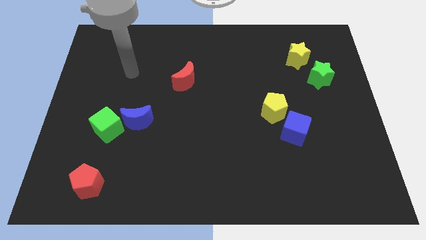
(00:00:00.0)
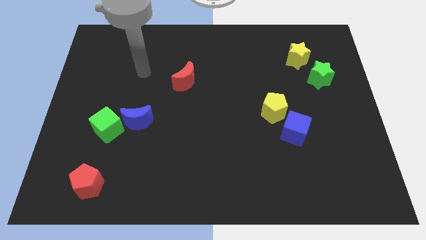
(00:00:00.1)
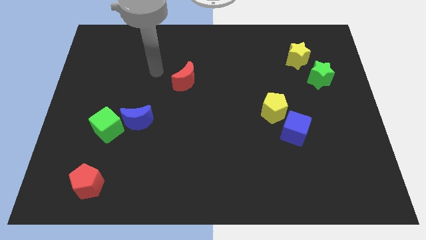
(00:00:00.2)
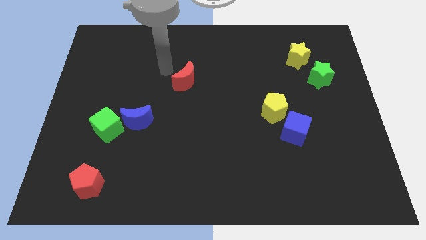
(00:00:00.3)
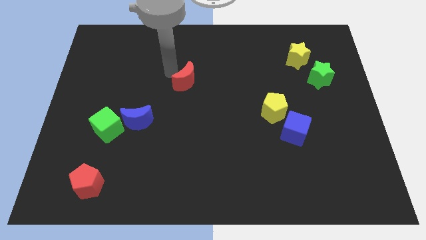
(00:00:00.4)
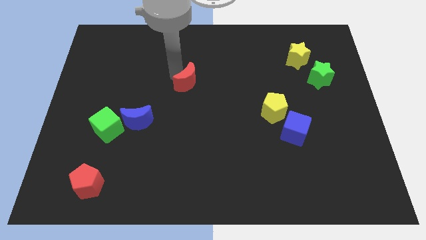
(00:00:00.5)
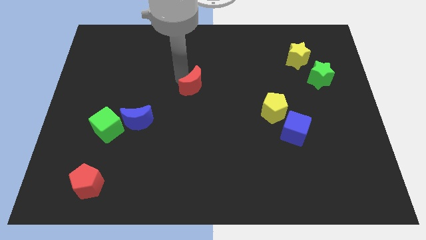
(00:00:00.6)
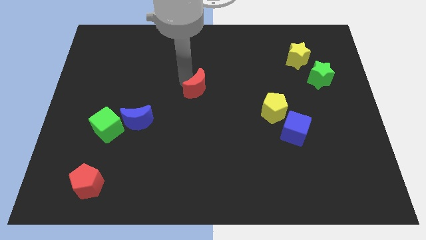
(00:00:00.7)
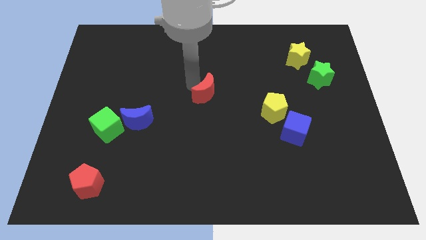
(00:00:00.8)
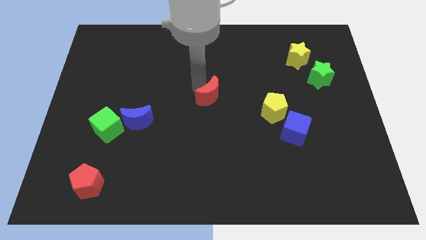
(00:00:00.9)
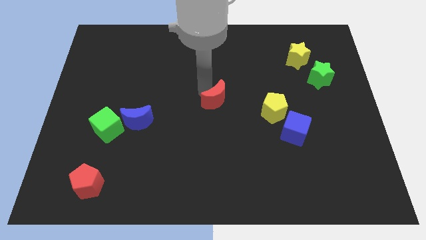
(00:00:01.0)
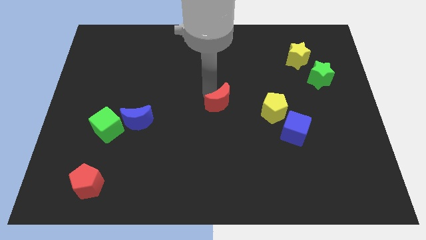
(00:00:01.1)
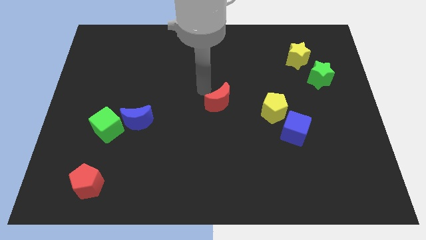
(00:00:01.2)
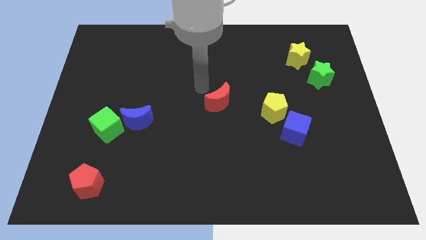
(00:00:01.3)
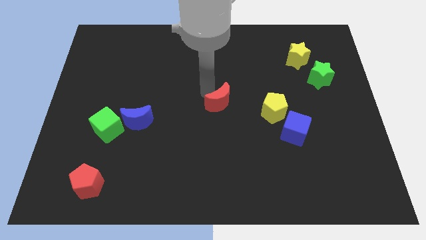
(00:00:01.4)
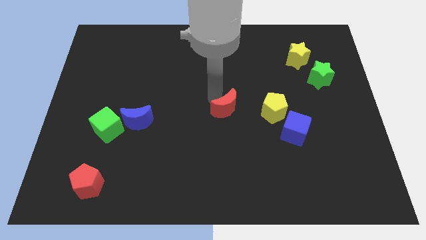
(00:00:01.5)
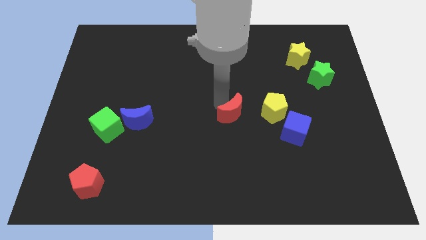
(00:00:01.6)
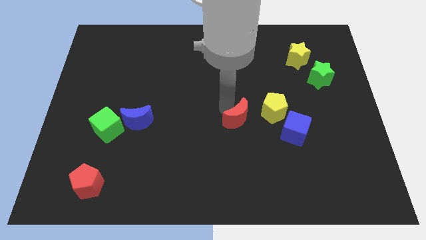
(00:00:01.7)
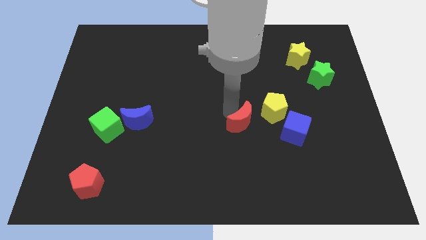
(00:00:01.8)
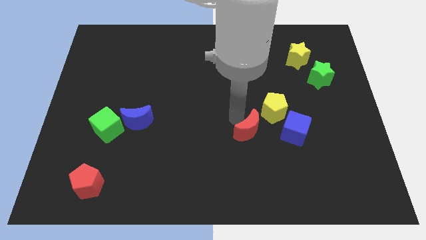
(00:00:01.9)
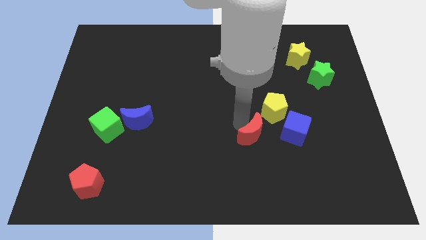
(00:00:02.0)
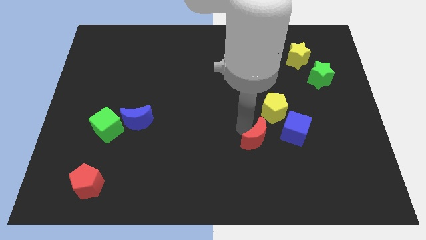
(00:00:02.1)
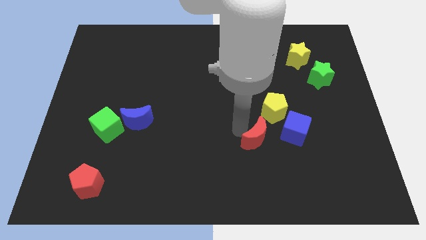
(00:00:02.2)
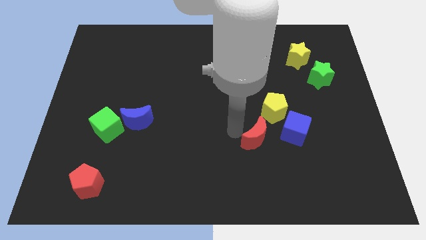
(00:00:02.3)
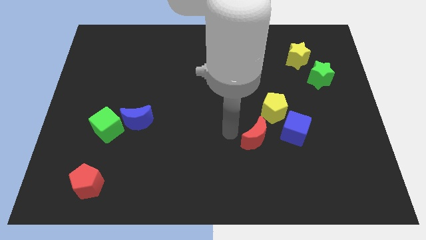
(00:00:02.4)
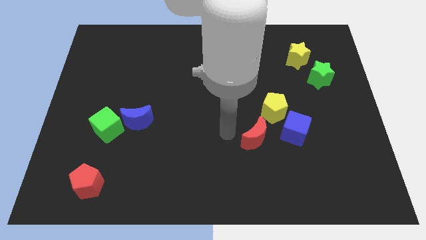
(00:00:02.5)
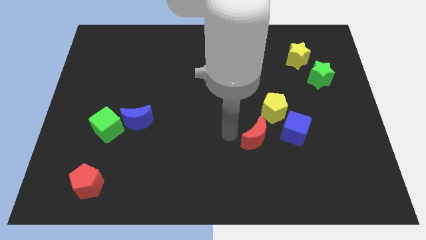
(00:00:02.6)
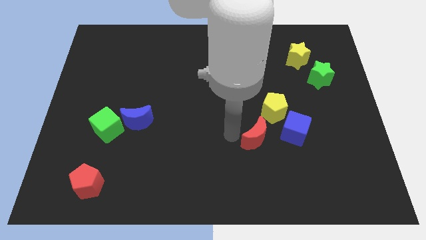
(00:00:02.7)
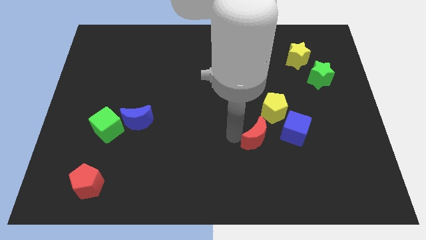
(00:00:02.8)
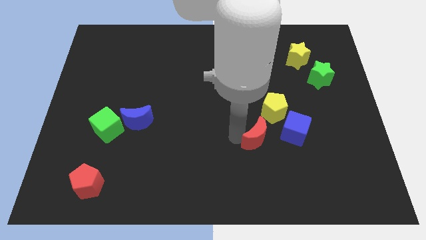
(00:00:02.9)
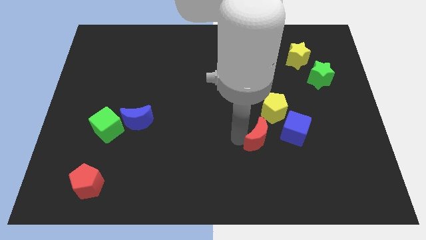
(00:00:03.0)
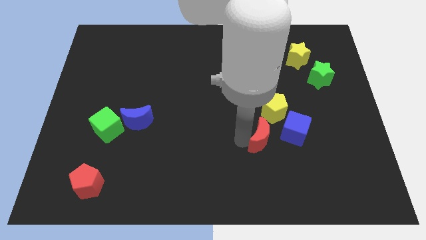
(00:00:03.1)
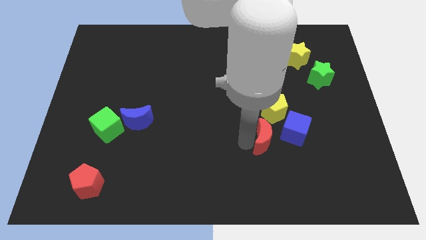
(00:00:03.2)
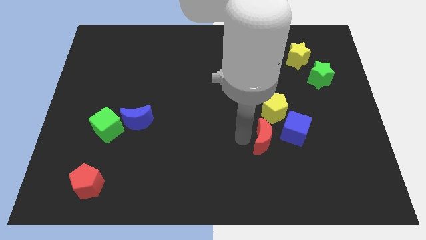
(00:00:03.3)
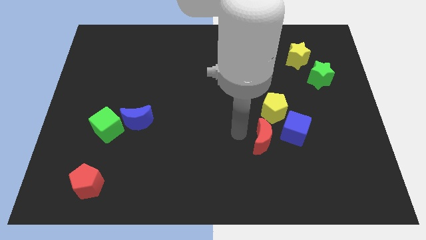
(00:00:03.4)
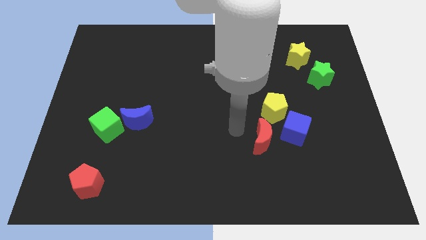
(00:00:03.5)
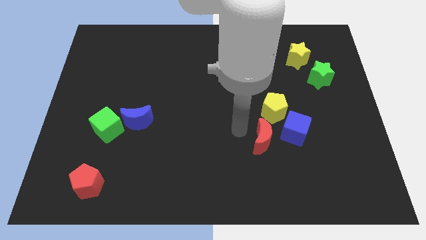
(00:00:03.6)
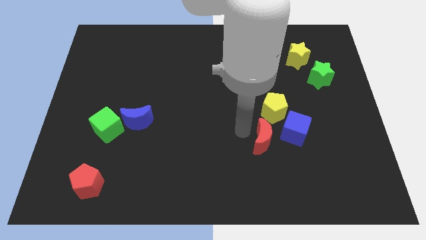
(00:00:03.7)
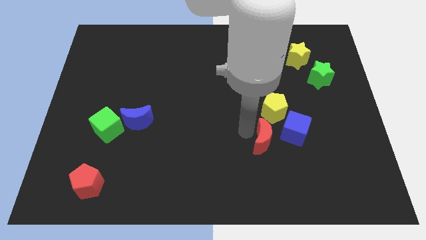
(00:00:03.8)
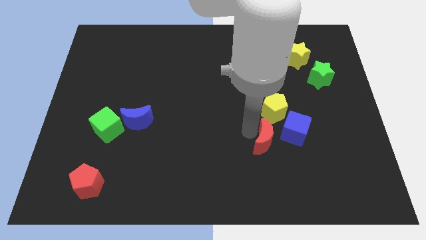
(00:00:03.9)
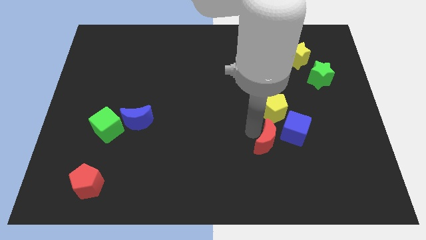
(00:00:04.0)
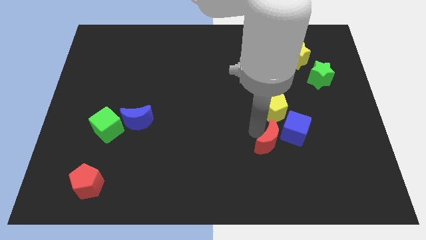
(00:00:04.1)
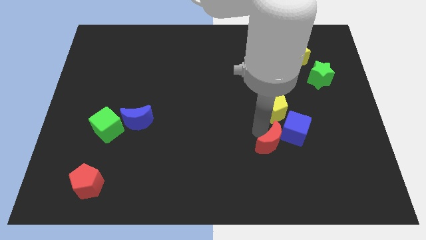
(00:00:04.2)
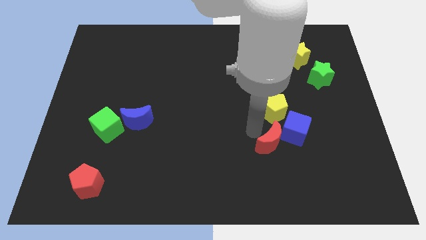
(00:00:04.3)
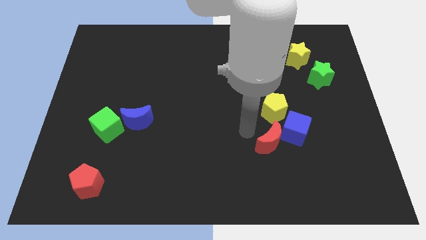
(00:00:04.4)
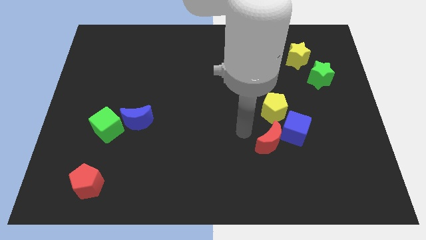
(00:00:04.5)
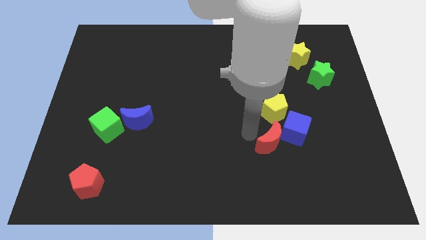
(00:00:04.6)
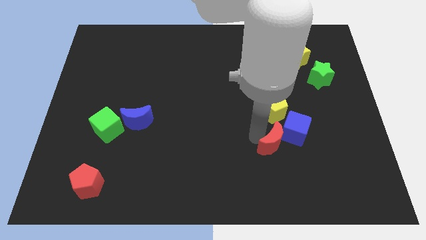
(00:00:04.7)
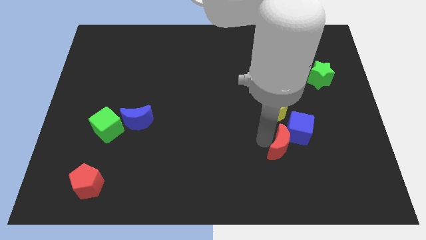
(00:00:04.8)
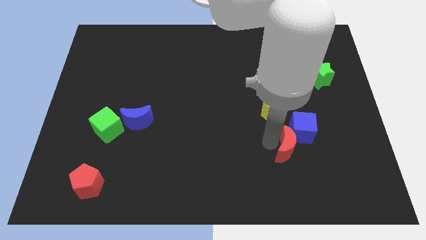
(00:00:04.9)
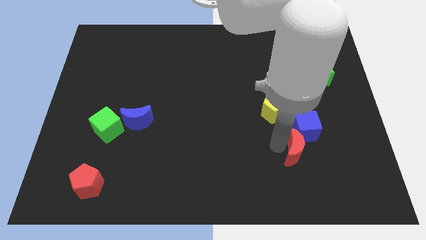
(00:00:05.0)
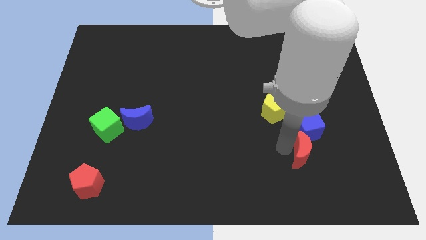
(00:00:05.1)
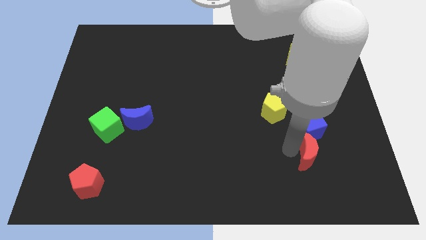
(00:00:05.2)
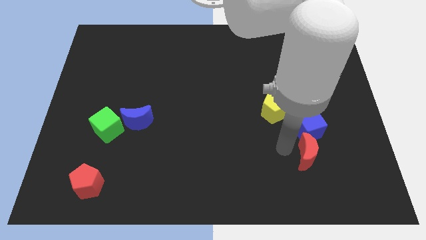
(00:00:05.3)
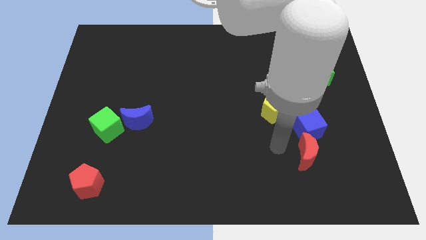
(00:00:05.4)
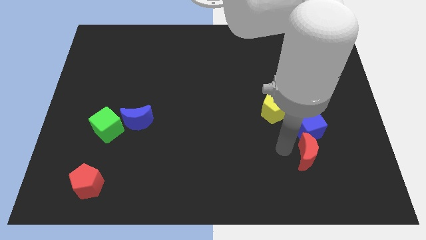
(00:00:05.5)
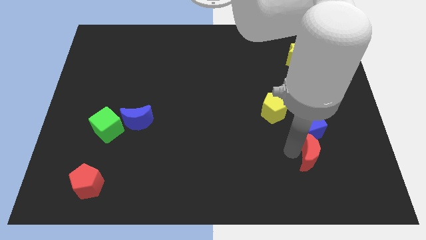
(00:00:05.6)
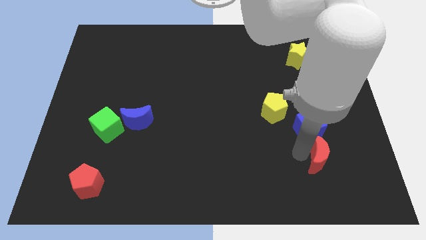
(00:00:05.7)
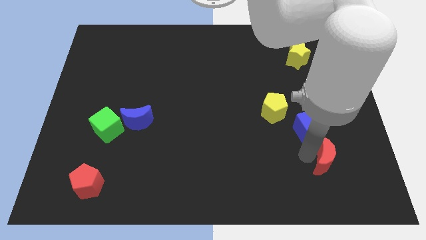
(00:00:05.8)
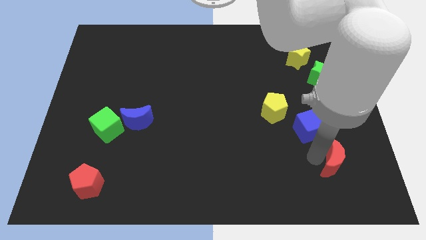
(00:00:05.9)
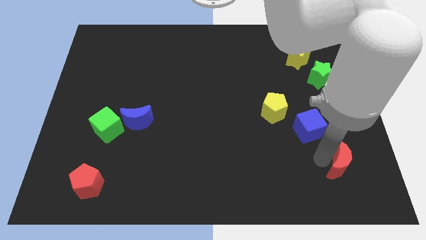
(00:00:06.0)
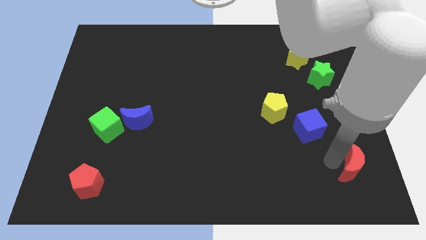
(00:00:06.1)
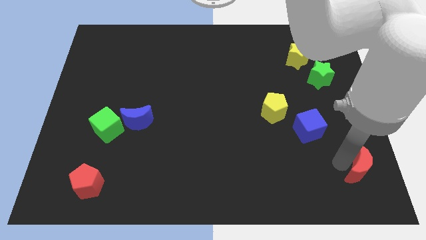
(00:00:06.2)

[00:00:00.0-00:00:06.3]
push the red moon to the lower right corner

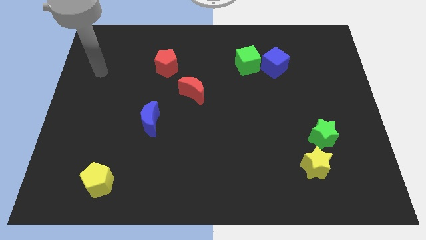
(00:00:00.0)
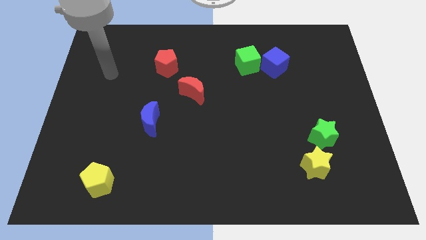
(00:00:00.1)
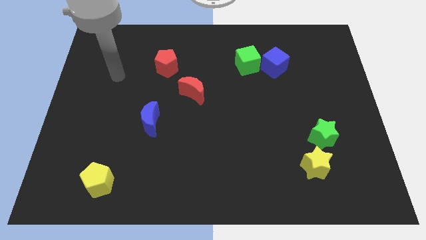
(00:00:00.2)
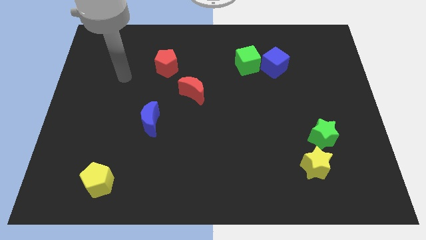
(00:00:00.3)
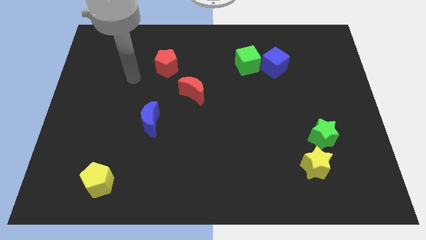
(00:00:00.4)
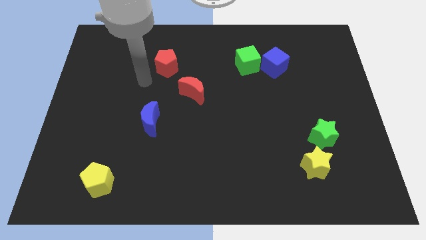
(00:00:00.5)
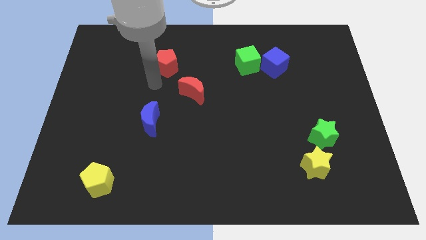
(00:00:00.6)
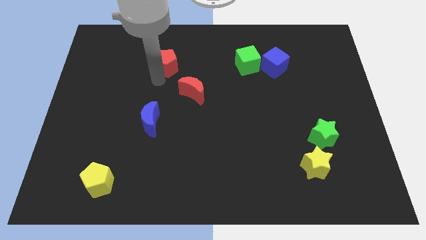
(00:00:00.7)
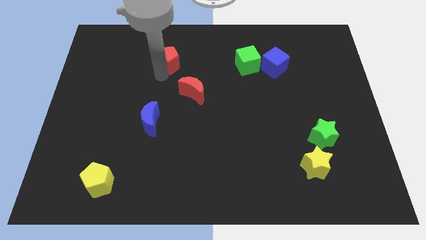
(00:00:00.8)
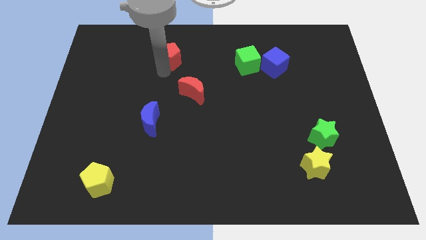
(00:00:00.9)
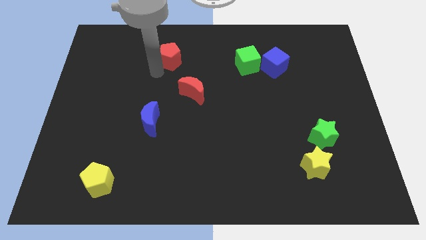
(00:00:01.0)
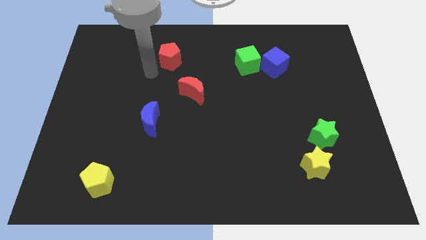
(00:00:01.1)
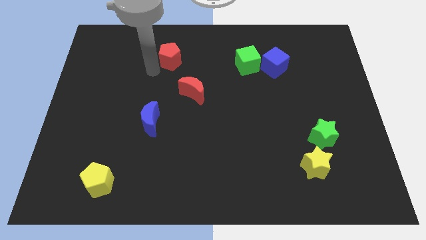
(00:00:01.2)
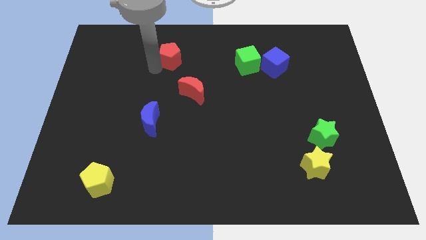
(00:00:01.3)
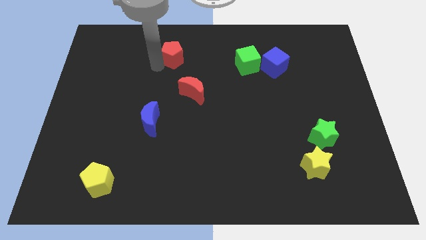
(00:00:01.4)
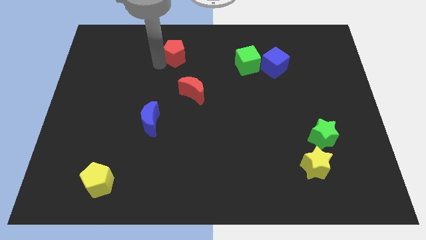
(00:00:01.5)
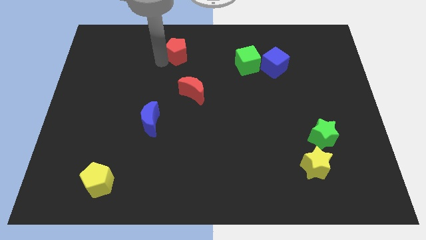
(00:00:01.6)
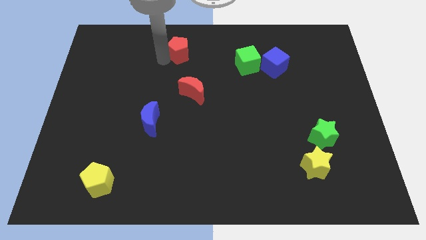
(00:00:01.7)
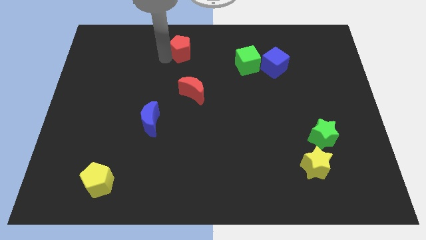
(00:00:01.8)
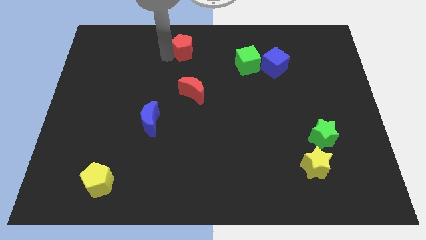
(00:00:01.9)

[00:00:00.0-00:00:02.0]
slide the red pentagon to the top side
